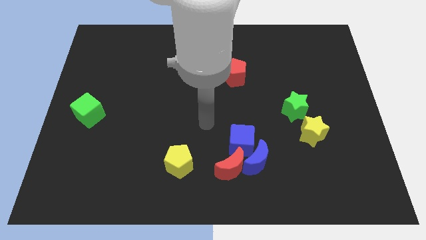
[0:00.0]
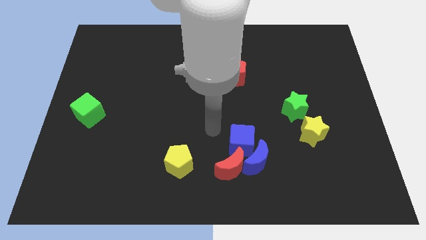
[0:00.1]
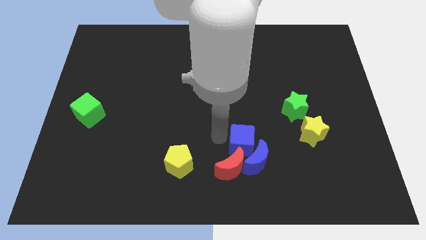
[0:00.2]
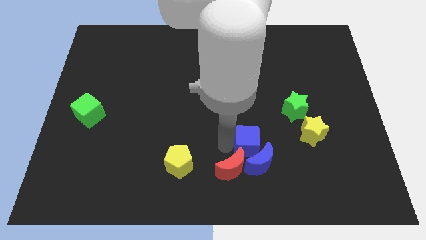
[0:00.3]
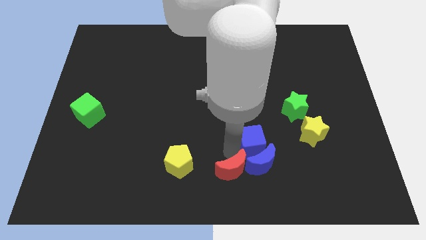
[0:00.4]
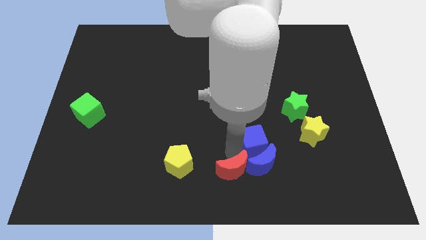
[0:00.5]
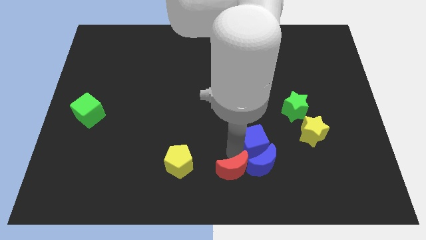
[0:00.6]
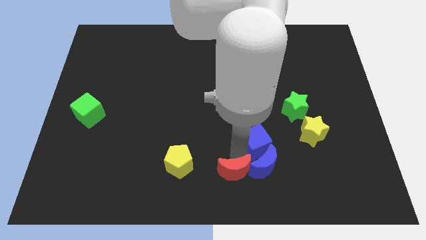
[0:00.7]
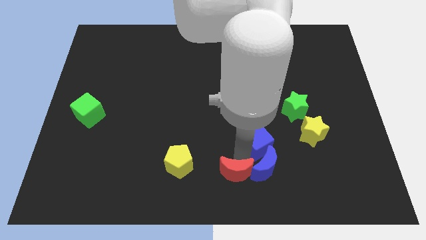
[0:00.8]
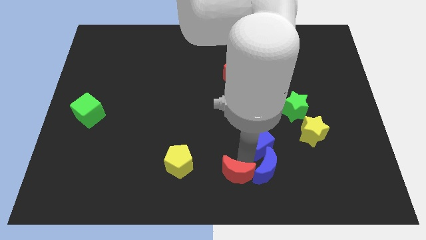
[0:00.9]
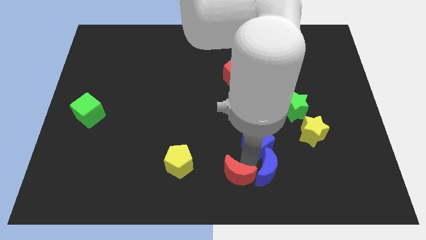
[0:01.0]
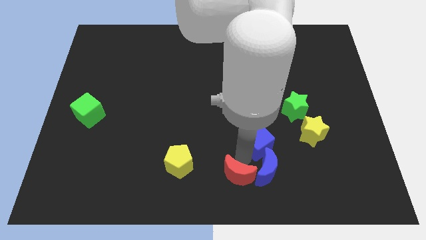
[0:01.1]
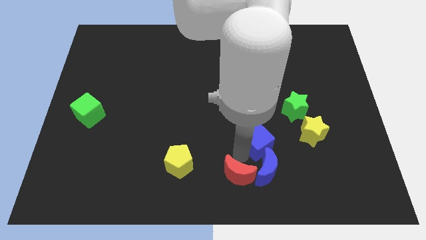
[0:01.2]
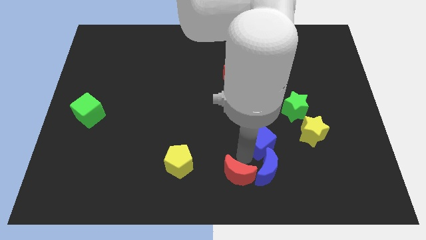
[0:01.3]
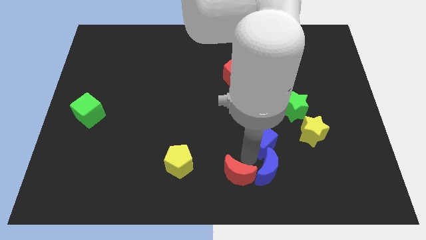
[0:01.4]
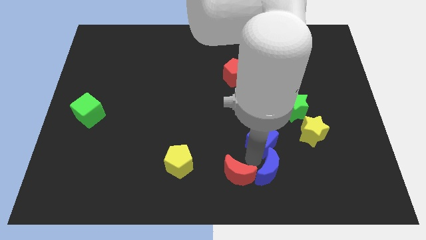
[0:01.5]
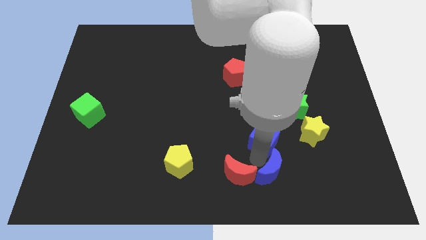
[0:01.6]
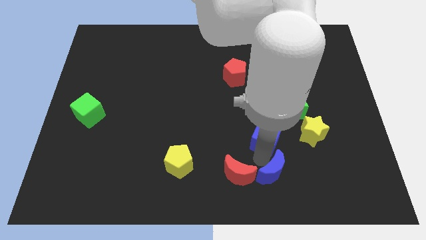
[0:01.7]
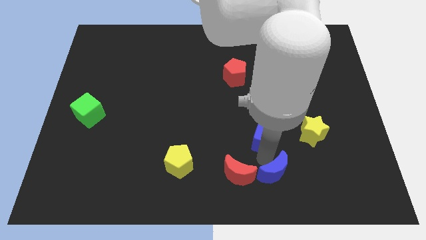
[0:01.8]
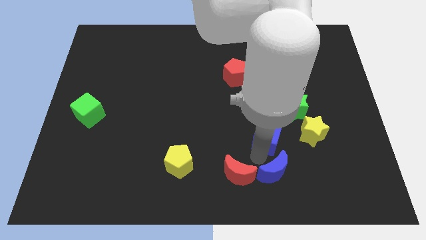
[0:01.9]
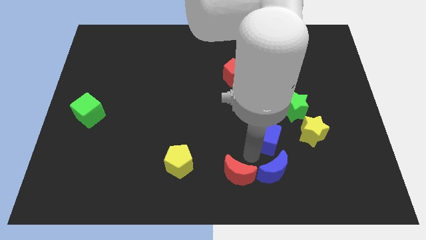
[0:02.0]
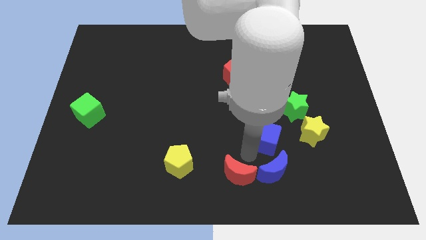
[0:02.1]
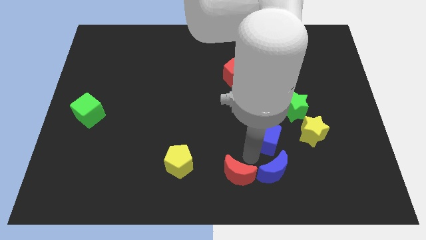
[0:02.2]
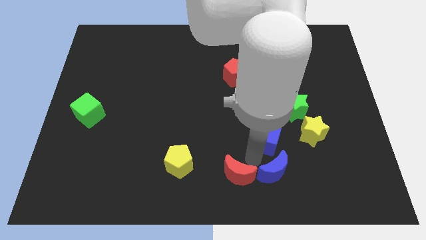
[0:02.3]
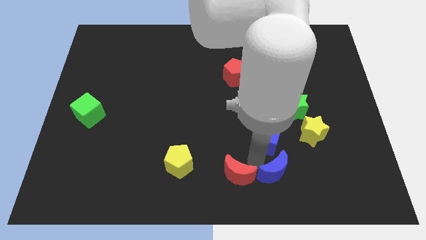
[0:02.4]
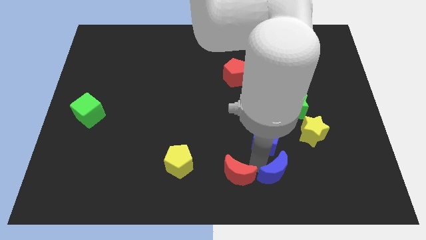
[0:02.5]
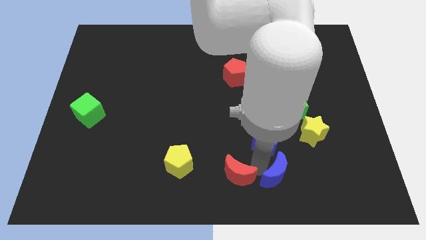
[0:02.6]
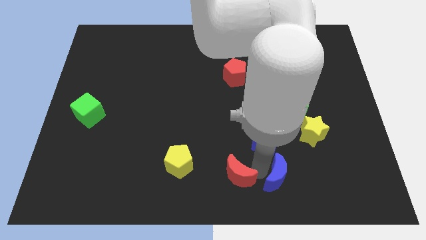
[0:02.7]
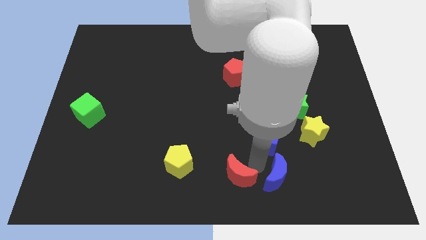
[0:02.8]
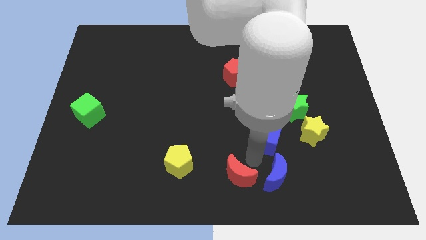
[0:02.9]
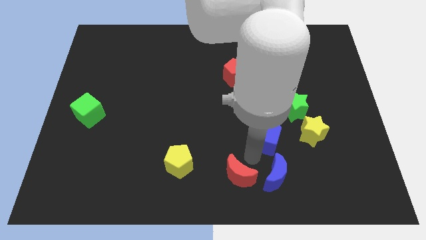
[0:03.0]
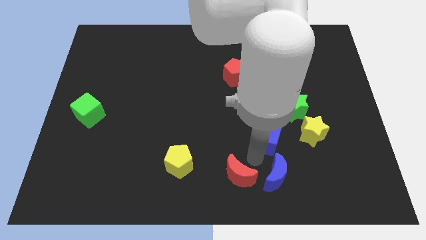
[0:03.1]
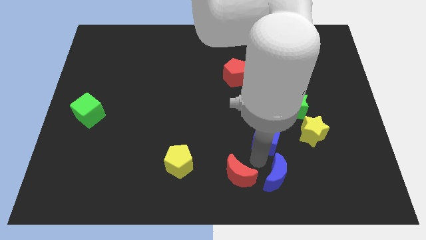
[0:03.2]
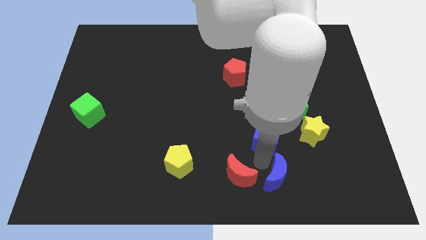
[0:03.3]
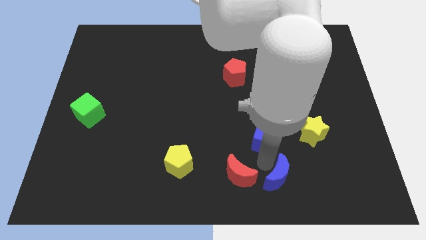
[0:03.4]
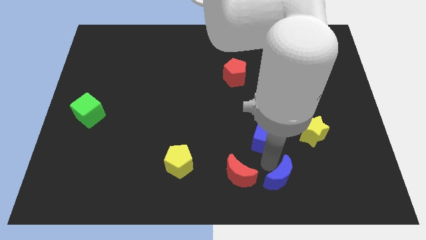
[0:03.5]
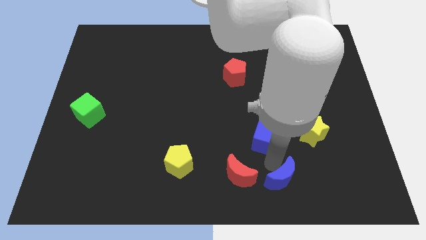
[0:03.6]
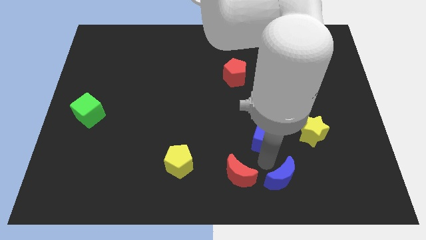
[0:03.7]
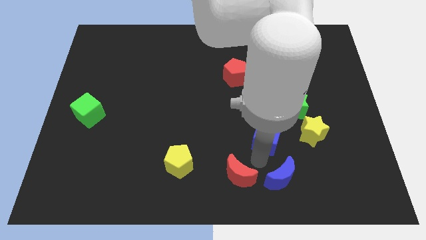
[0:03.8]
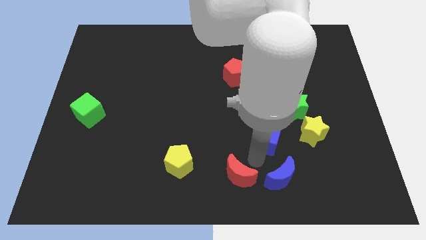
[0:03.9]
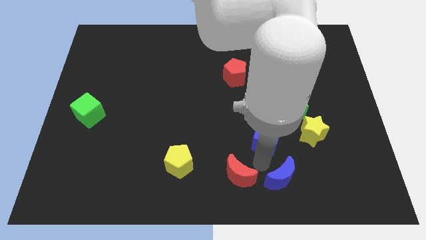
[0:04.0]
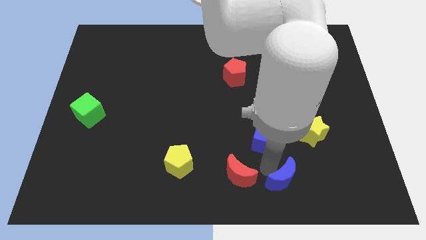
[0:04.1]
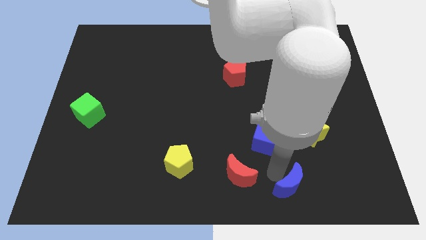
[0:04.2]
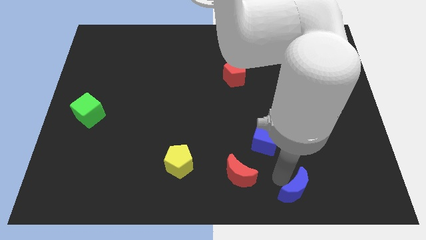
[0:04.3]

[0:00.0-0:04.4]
pull the blue moon apart from the blue cube and red moon

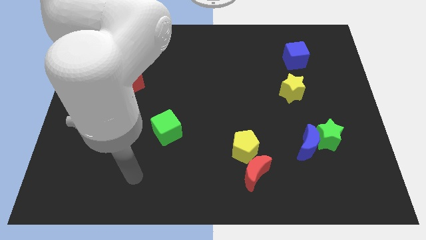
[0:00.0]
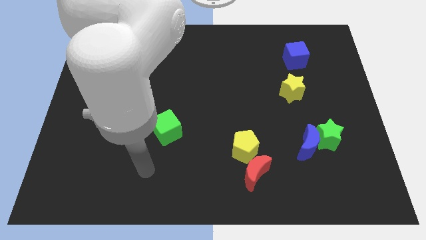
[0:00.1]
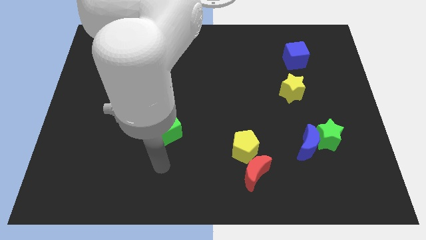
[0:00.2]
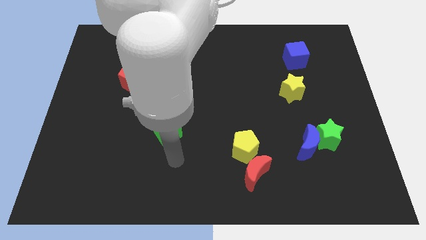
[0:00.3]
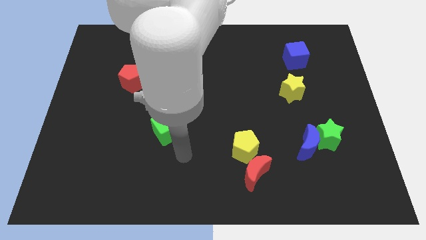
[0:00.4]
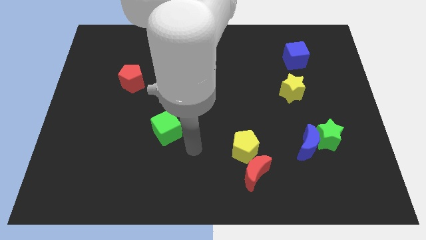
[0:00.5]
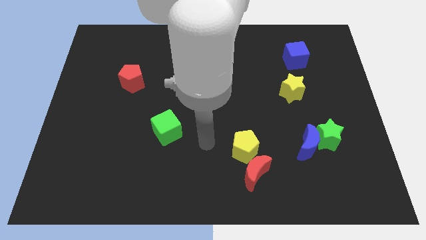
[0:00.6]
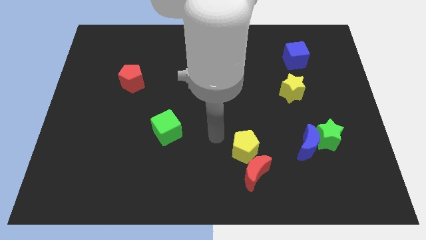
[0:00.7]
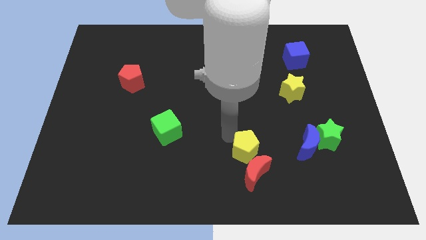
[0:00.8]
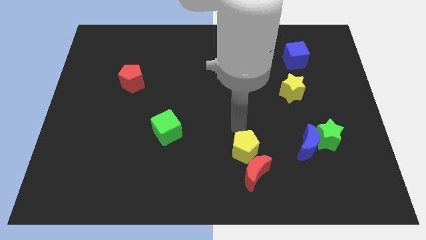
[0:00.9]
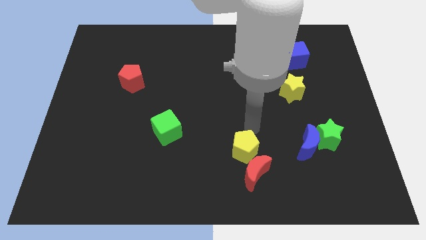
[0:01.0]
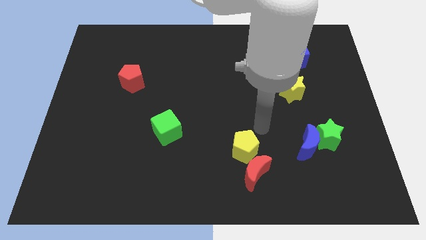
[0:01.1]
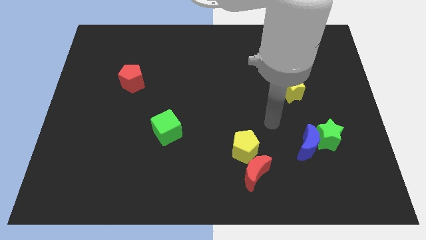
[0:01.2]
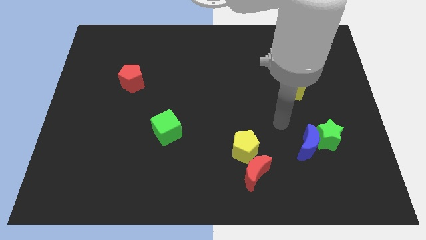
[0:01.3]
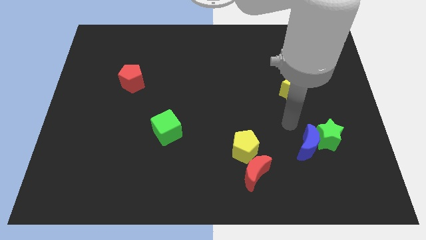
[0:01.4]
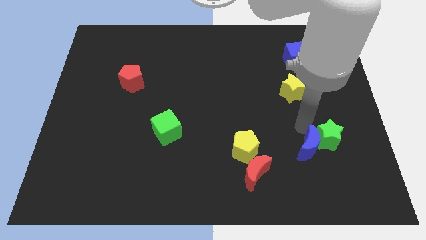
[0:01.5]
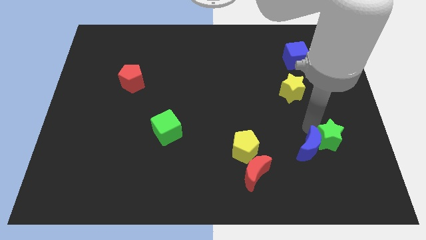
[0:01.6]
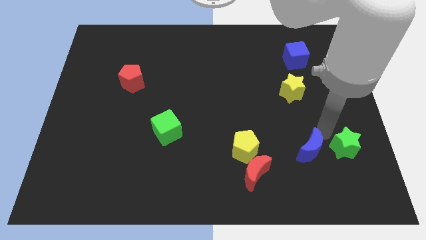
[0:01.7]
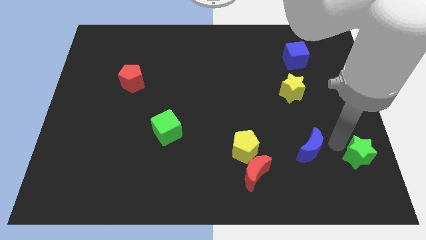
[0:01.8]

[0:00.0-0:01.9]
pull the blue moon apart from the green star

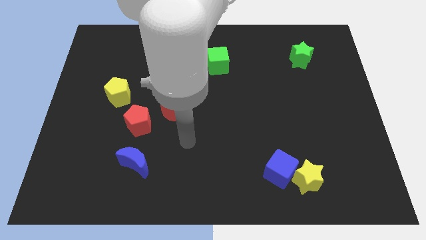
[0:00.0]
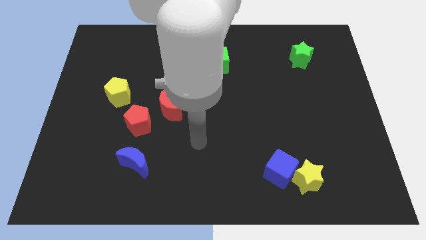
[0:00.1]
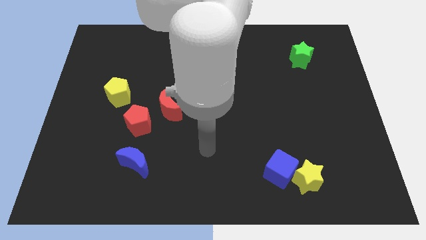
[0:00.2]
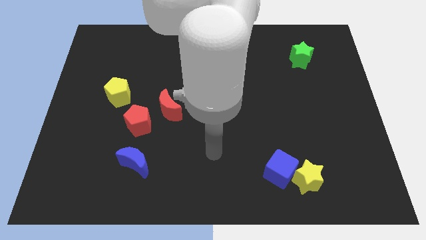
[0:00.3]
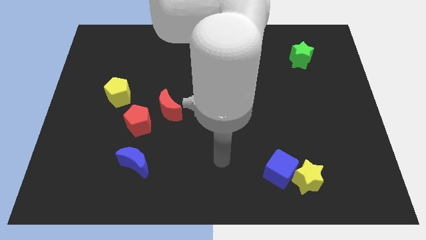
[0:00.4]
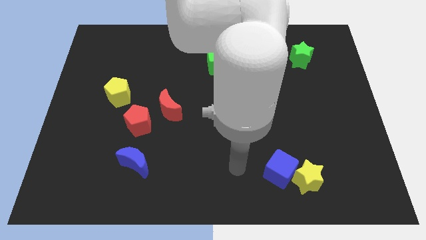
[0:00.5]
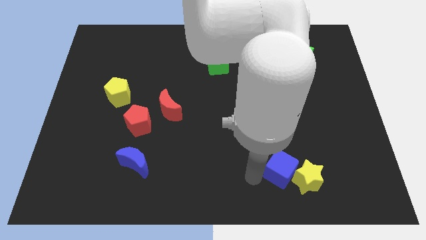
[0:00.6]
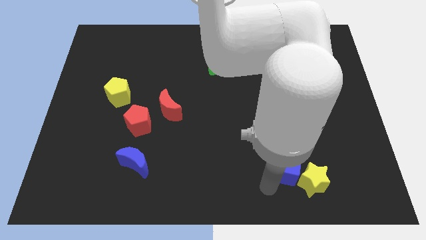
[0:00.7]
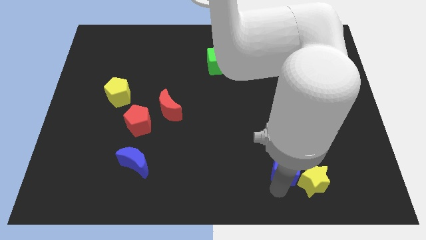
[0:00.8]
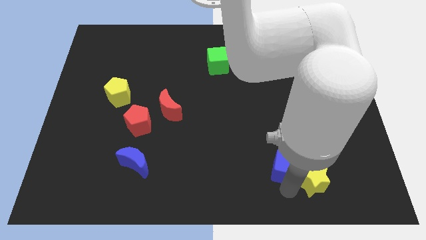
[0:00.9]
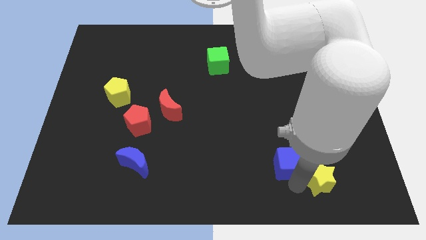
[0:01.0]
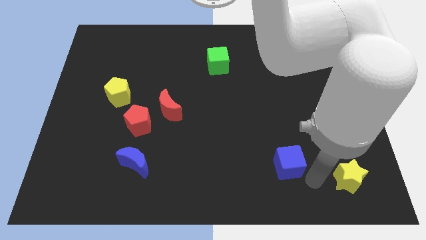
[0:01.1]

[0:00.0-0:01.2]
separate the blue cube from the yellow star

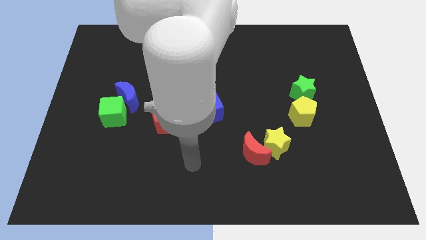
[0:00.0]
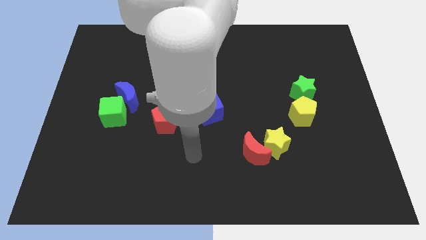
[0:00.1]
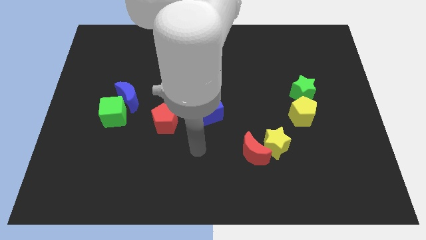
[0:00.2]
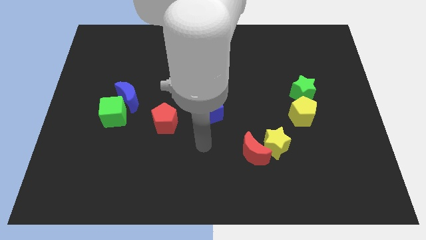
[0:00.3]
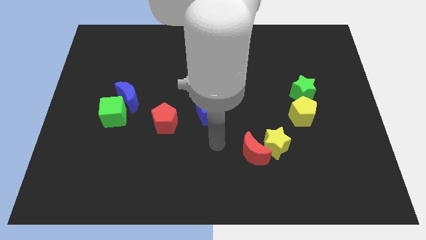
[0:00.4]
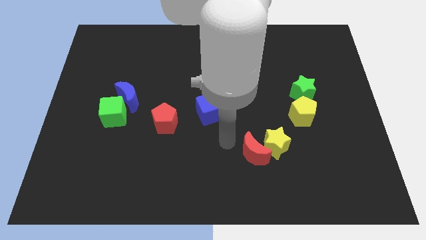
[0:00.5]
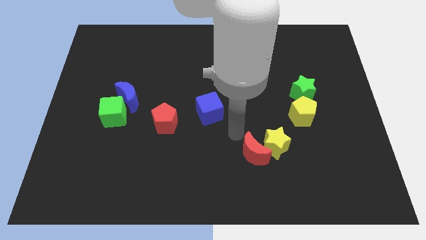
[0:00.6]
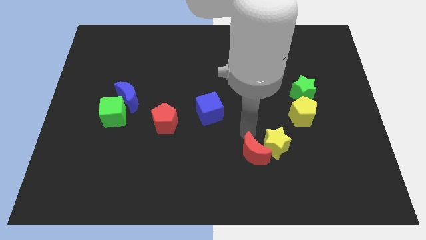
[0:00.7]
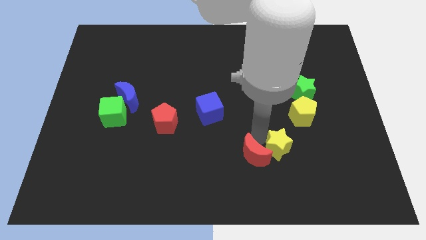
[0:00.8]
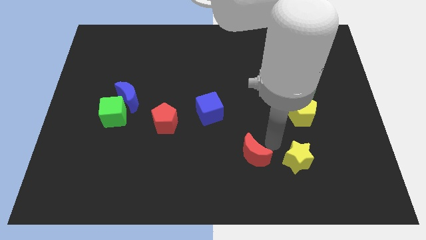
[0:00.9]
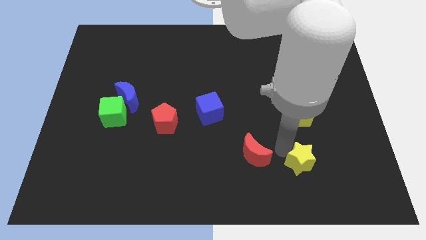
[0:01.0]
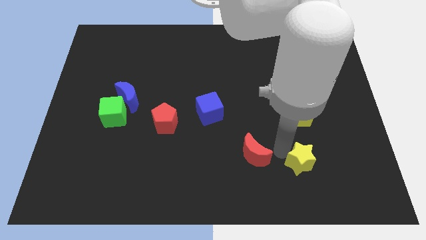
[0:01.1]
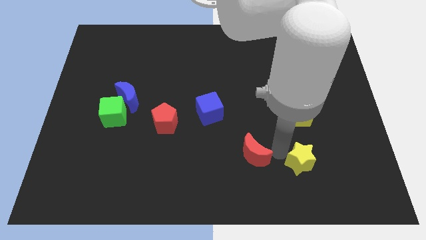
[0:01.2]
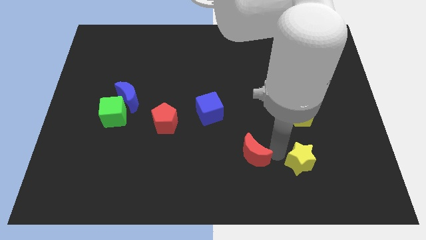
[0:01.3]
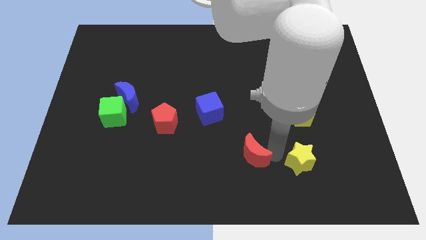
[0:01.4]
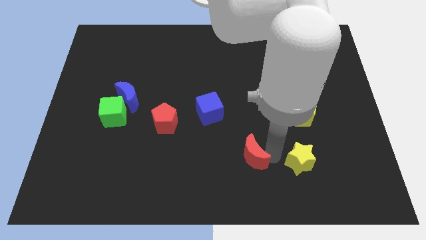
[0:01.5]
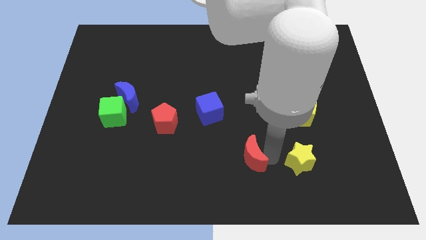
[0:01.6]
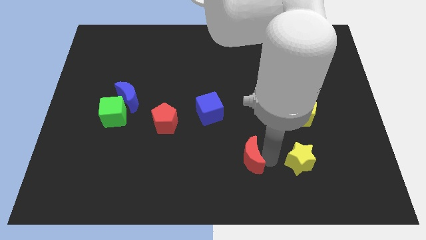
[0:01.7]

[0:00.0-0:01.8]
separate the red moon from the yellow star

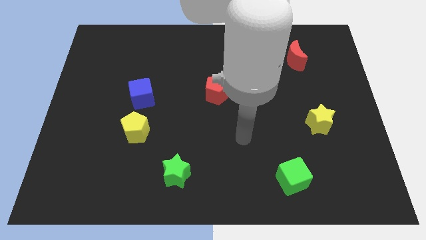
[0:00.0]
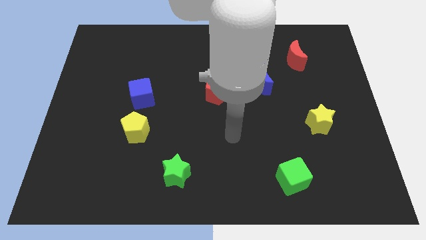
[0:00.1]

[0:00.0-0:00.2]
move the blue cube away from the yellow pentagon
